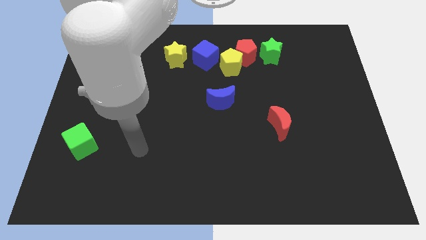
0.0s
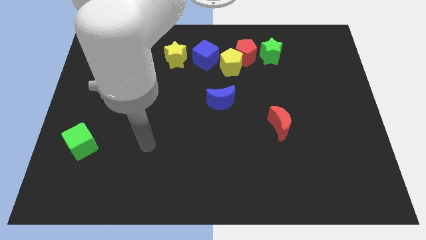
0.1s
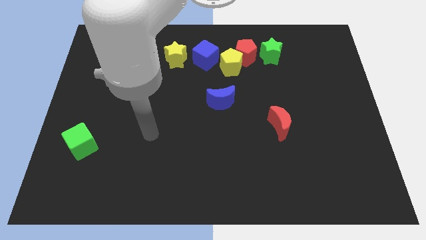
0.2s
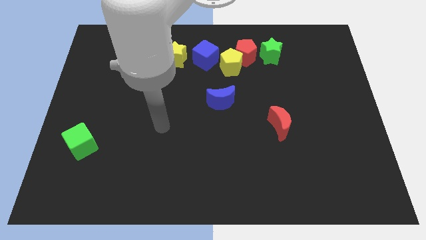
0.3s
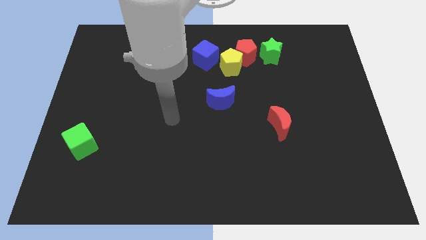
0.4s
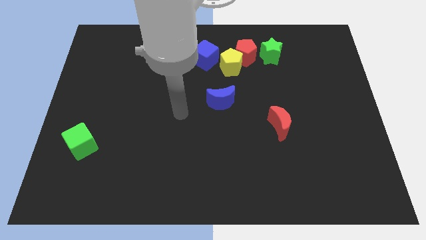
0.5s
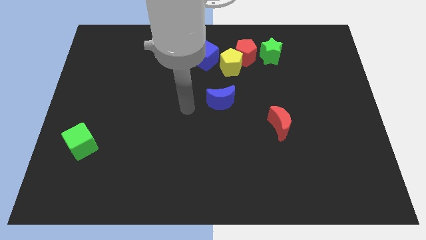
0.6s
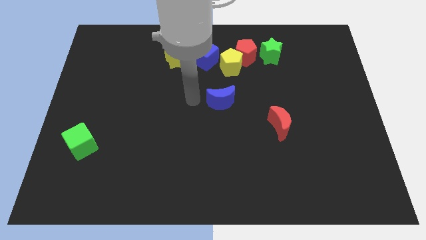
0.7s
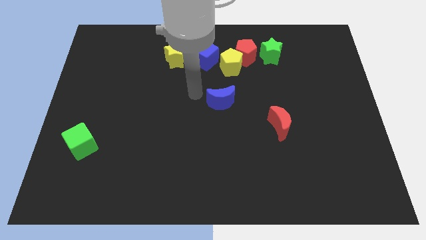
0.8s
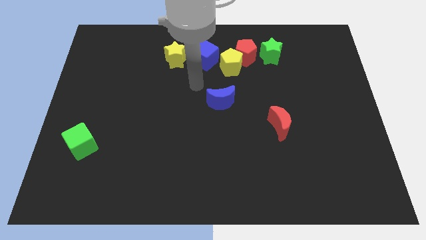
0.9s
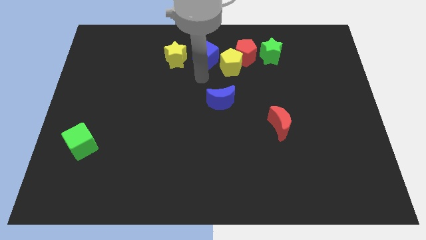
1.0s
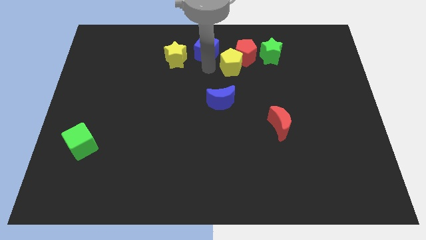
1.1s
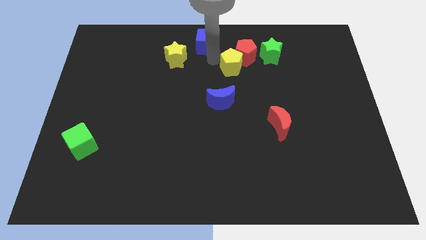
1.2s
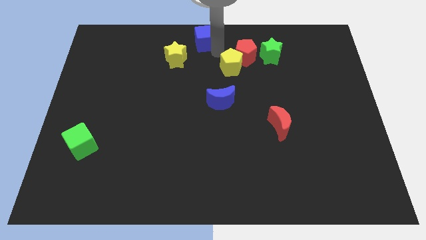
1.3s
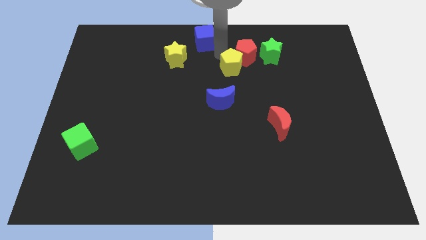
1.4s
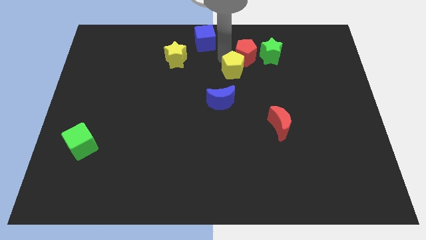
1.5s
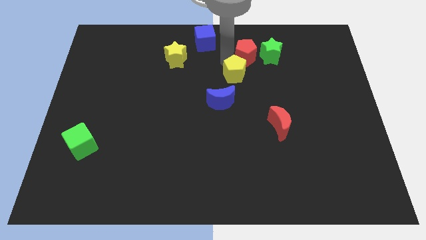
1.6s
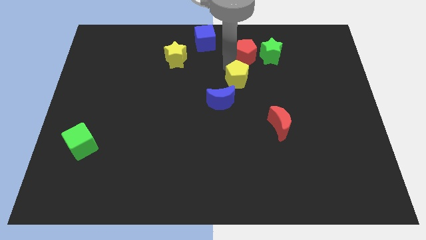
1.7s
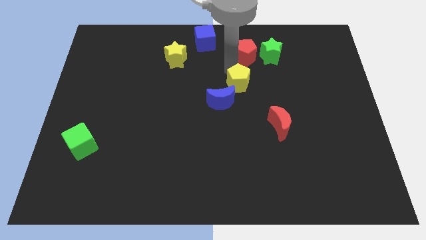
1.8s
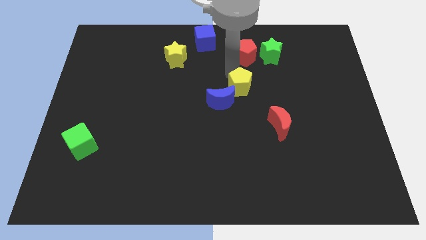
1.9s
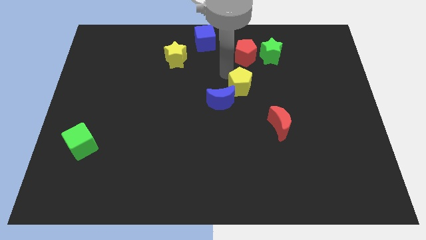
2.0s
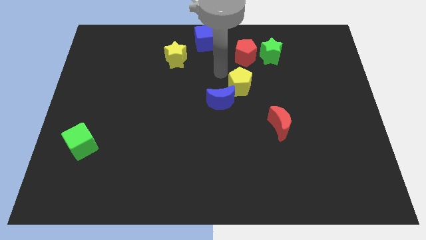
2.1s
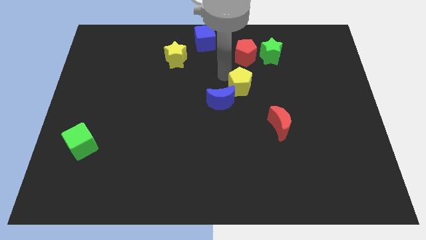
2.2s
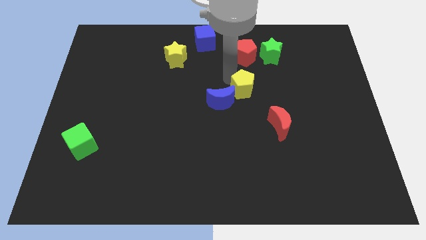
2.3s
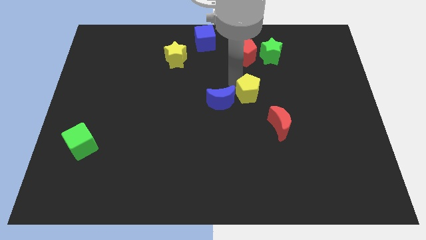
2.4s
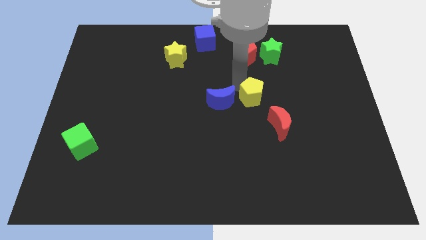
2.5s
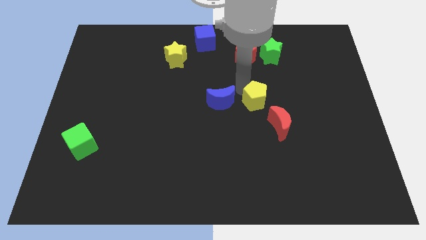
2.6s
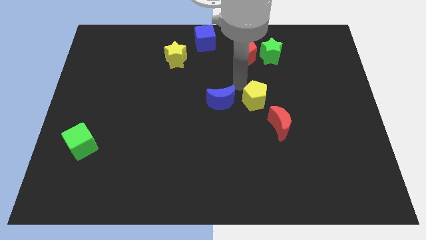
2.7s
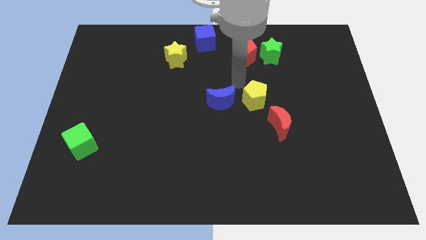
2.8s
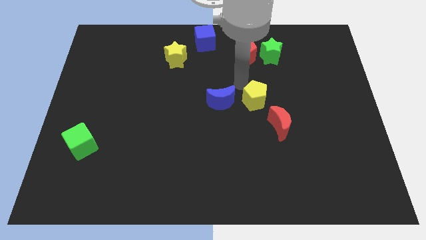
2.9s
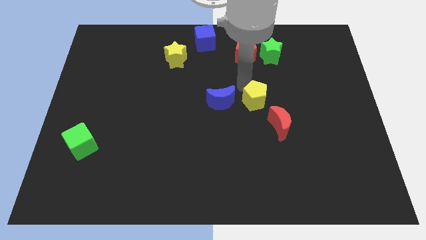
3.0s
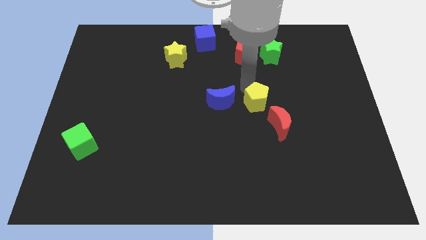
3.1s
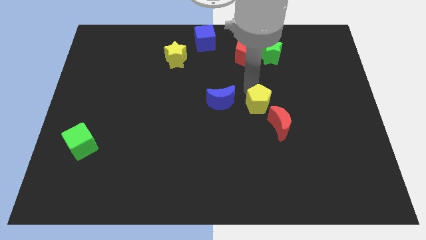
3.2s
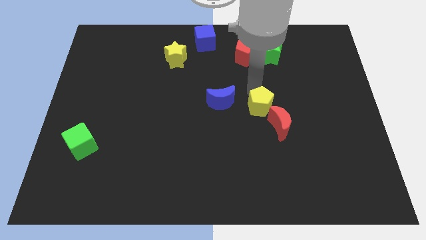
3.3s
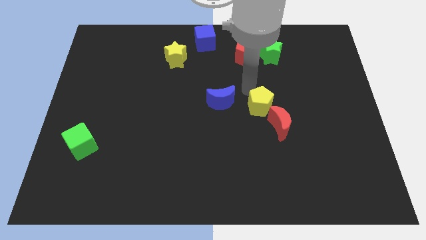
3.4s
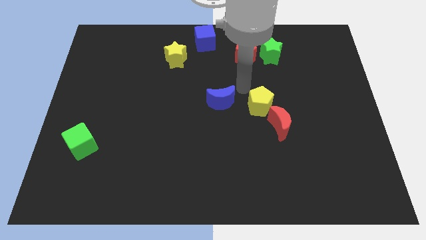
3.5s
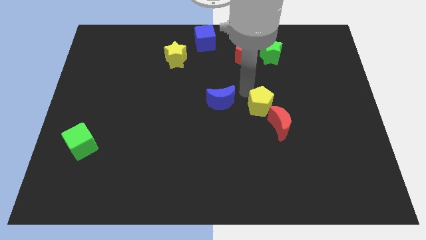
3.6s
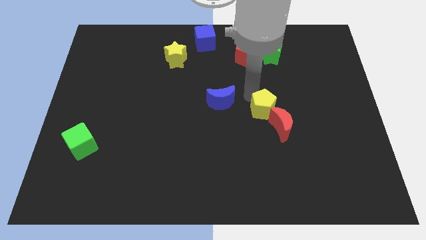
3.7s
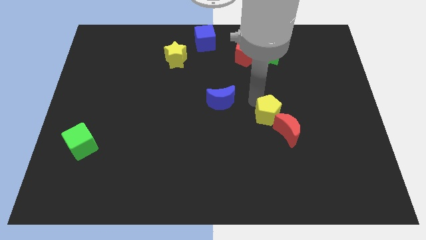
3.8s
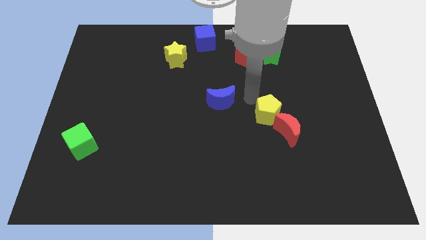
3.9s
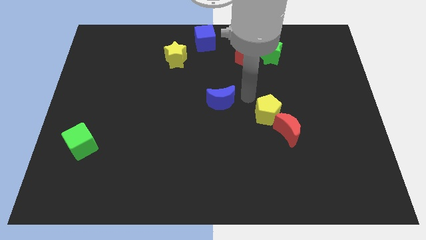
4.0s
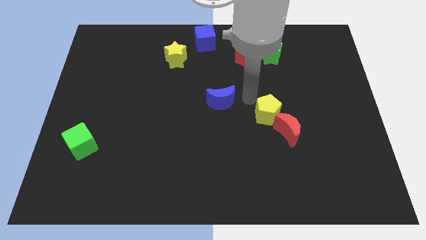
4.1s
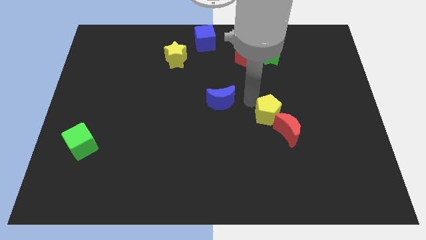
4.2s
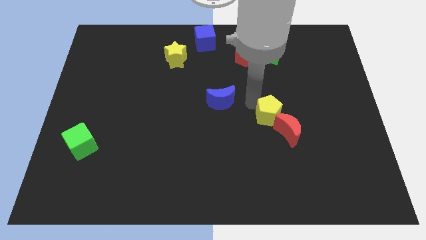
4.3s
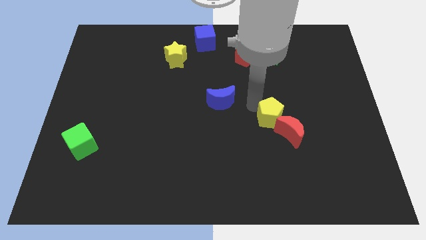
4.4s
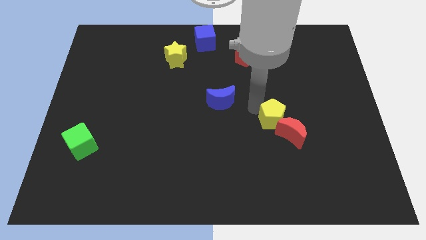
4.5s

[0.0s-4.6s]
move the yellow pentagon towards the red moon

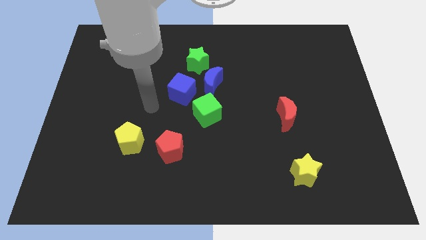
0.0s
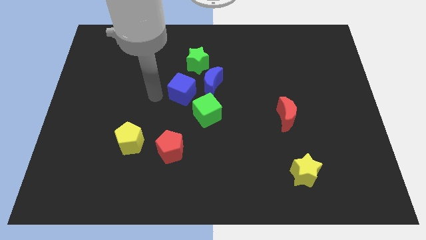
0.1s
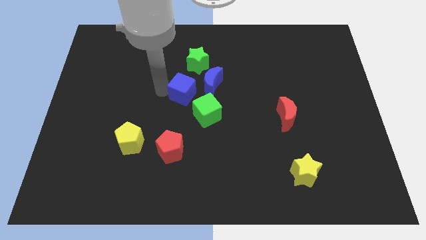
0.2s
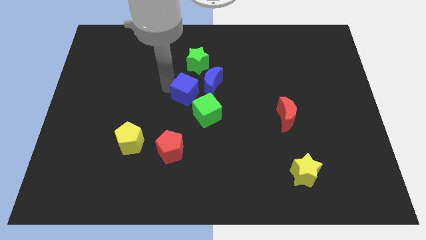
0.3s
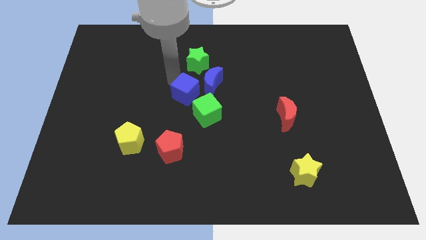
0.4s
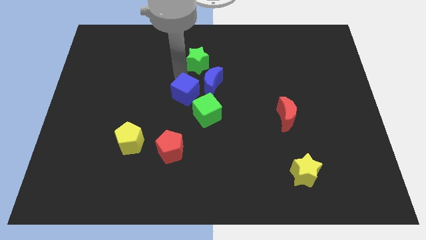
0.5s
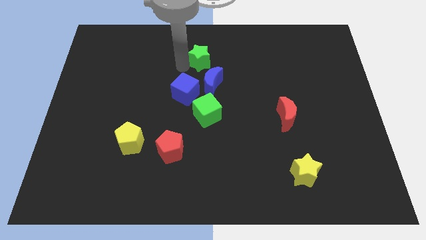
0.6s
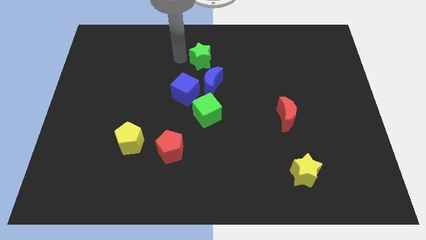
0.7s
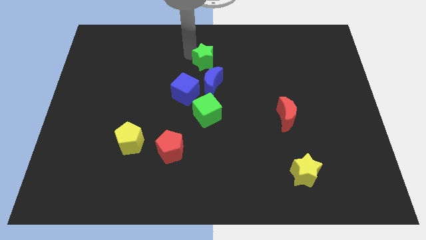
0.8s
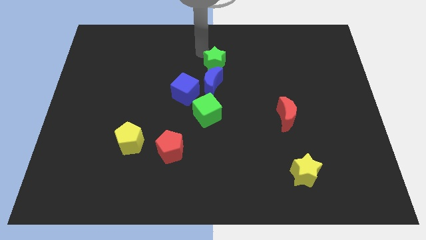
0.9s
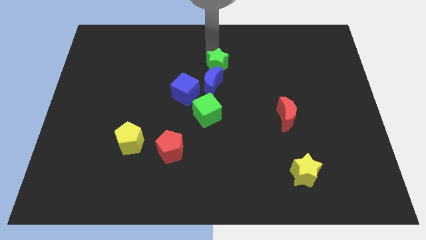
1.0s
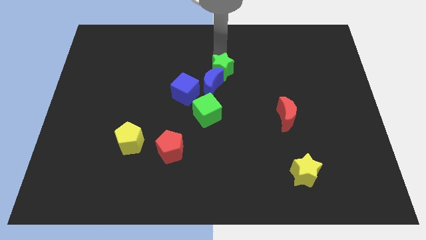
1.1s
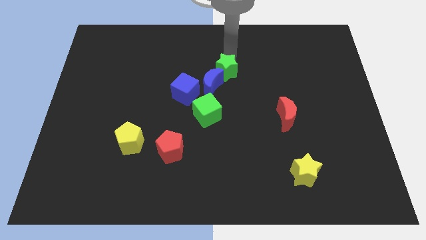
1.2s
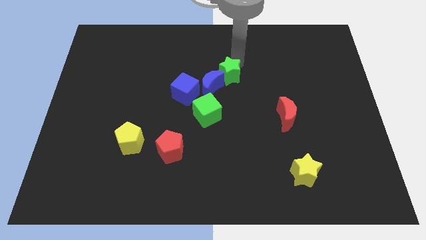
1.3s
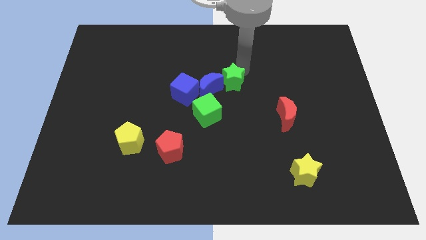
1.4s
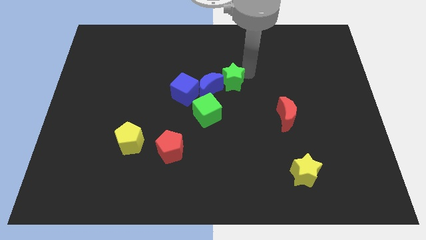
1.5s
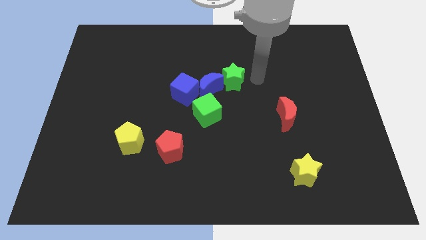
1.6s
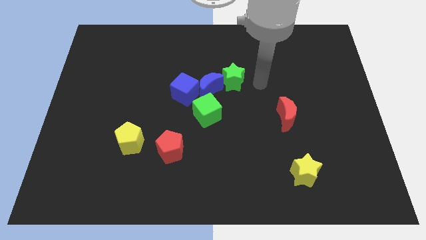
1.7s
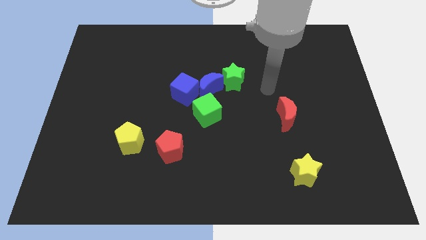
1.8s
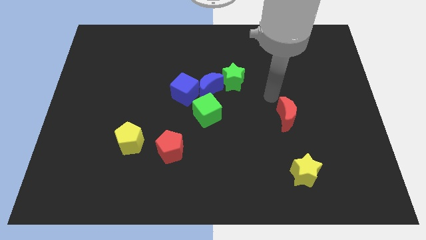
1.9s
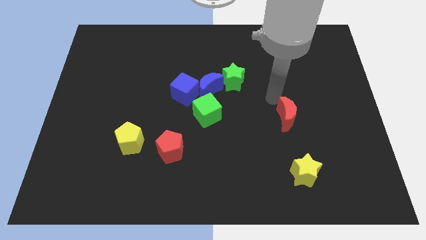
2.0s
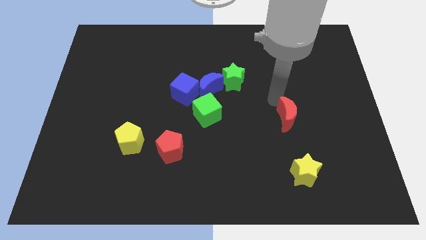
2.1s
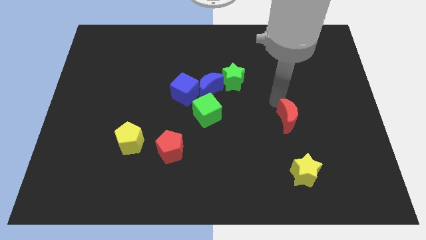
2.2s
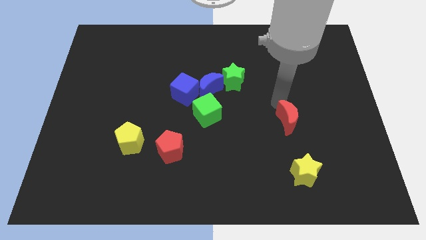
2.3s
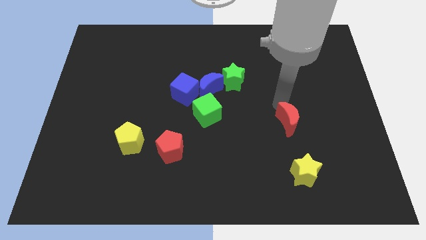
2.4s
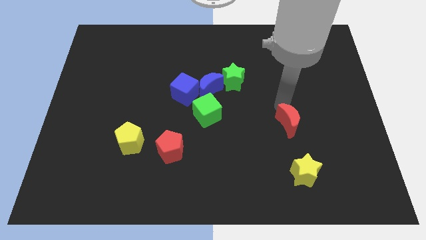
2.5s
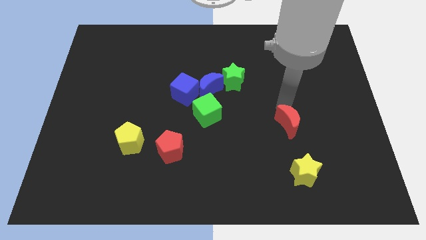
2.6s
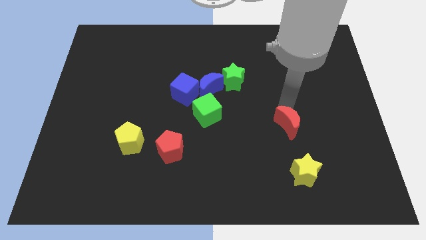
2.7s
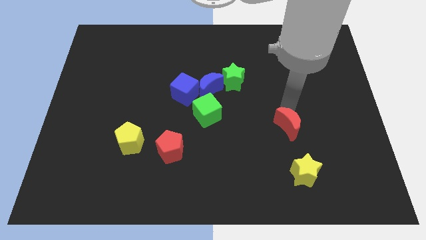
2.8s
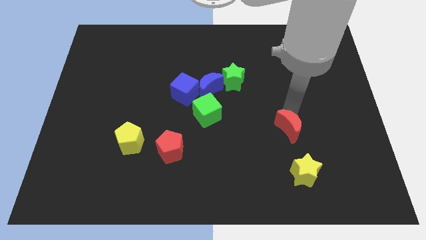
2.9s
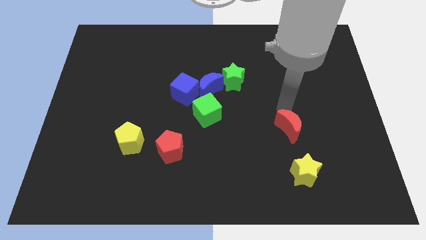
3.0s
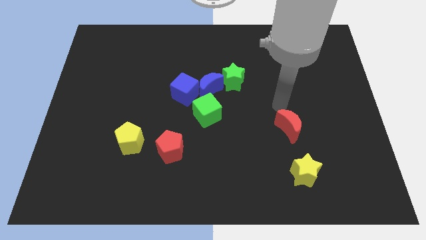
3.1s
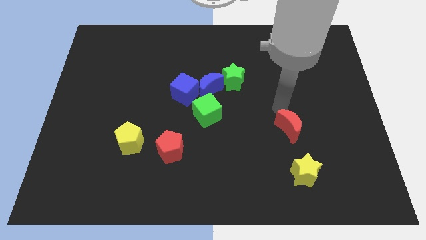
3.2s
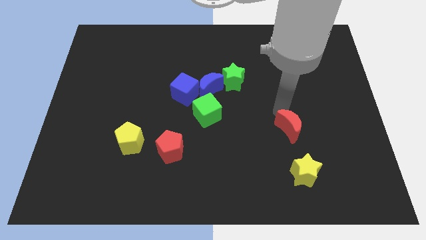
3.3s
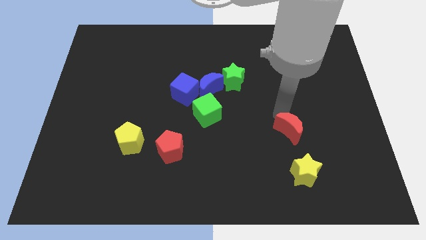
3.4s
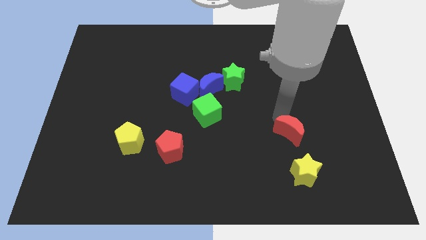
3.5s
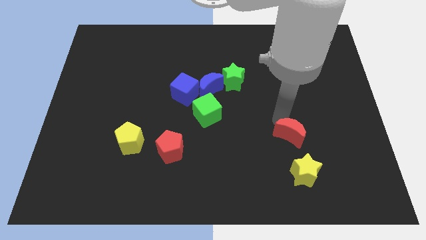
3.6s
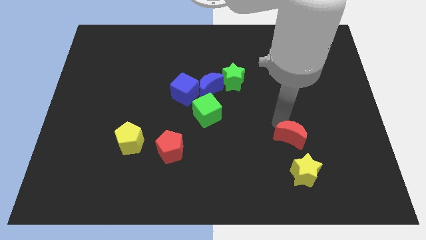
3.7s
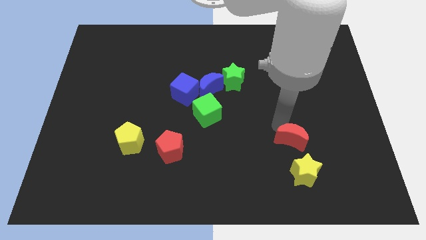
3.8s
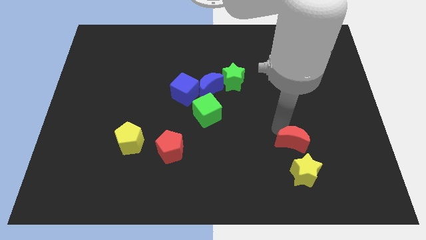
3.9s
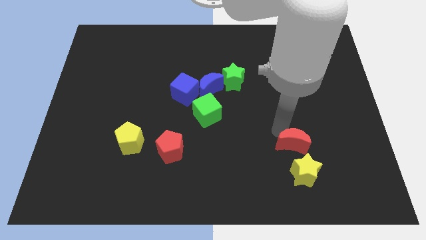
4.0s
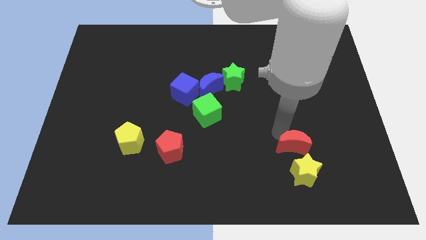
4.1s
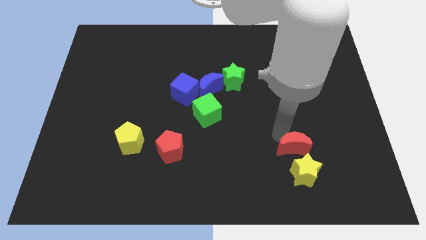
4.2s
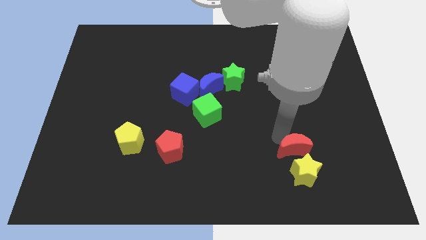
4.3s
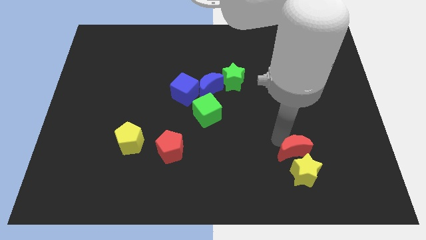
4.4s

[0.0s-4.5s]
put the red moon to the yellow star
